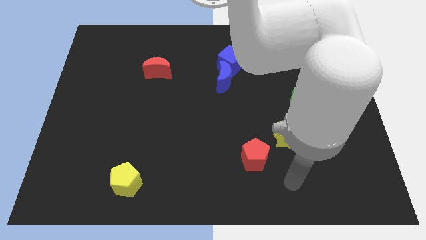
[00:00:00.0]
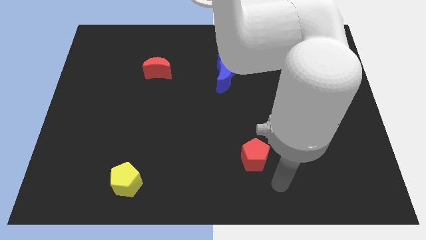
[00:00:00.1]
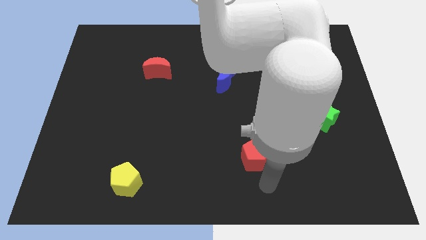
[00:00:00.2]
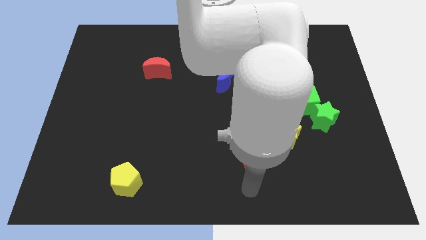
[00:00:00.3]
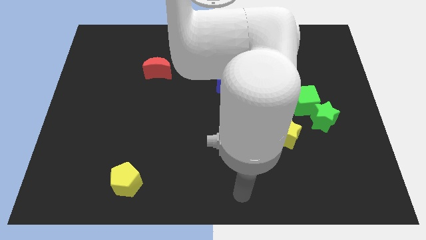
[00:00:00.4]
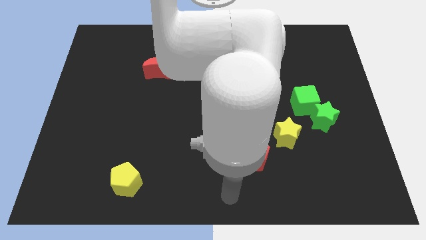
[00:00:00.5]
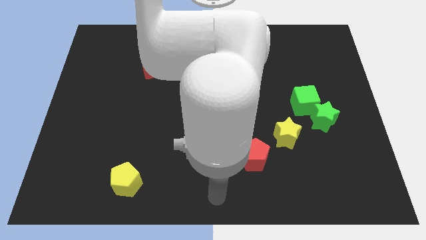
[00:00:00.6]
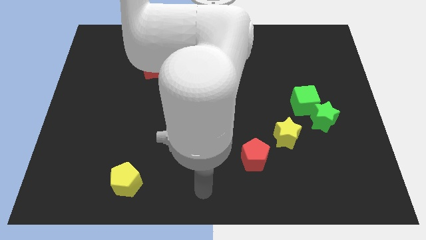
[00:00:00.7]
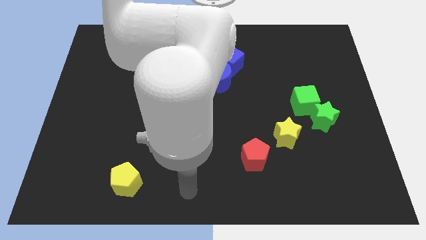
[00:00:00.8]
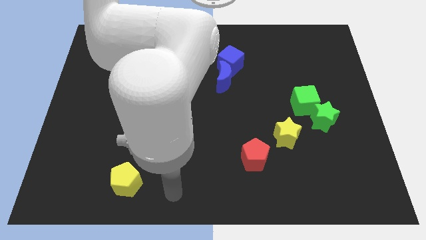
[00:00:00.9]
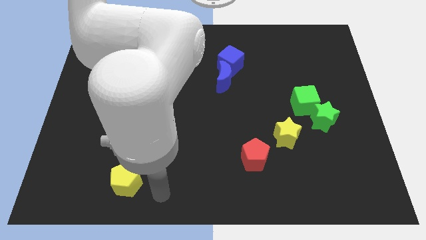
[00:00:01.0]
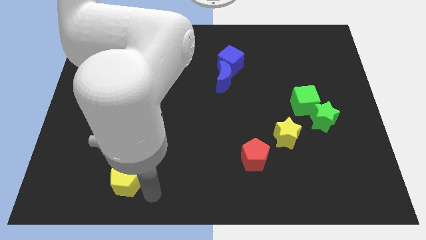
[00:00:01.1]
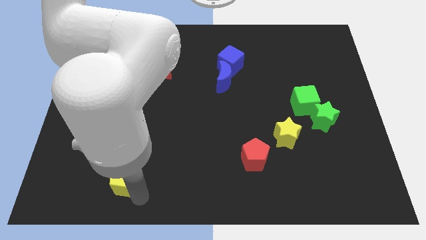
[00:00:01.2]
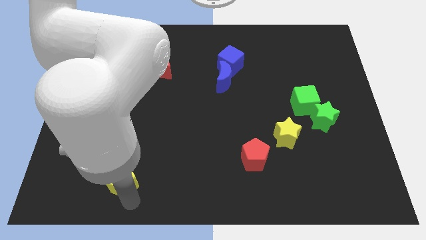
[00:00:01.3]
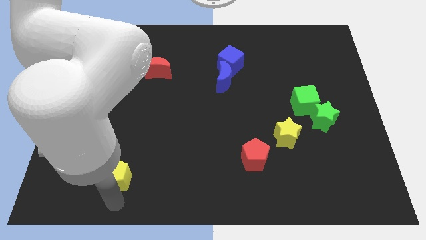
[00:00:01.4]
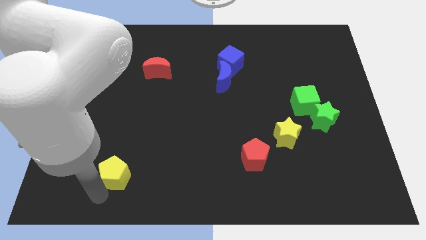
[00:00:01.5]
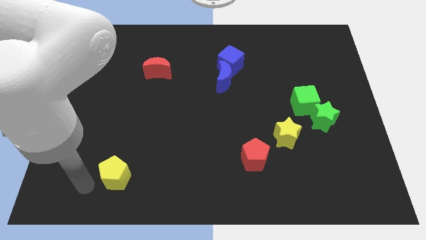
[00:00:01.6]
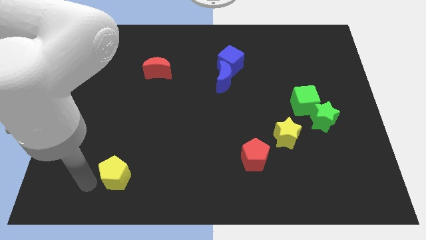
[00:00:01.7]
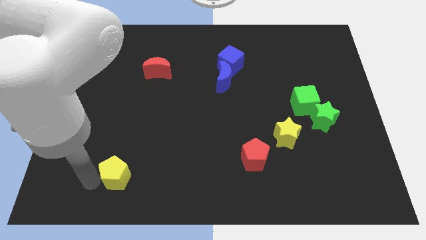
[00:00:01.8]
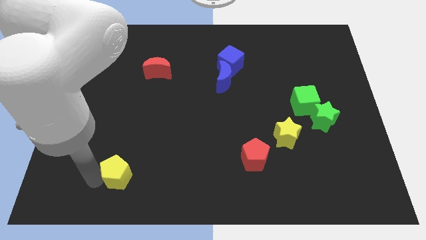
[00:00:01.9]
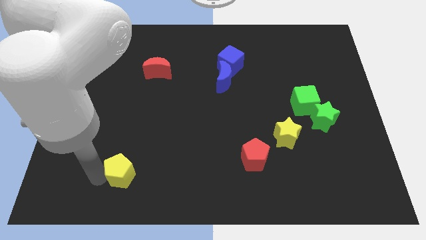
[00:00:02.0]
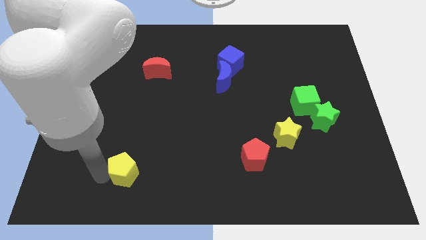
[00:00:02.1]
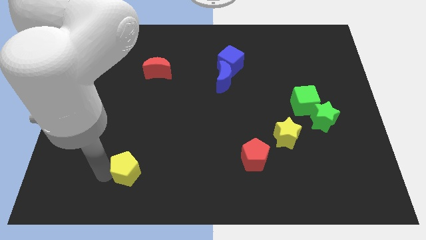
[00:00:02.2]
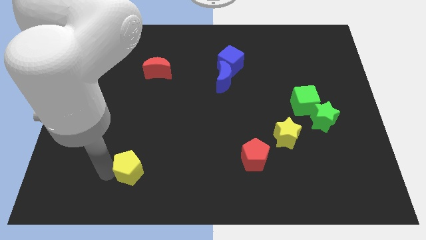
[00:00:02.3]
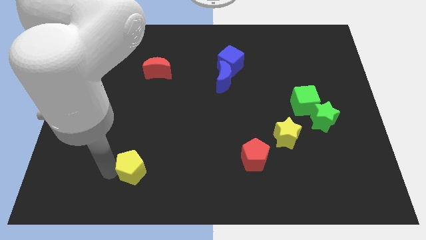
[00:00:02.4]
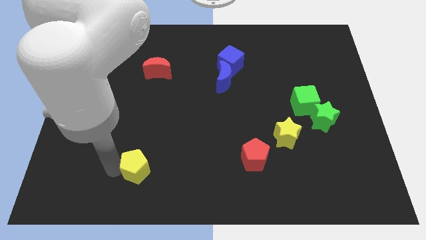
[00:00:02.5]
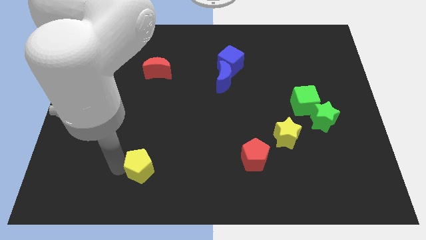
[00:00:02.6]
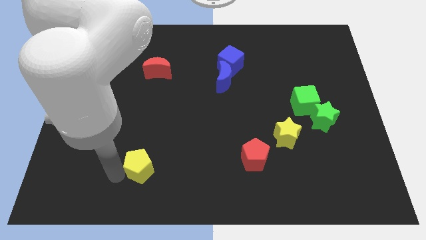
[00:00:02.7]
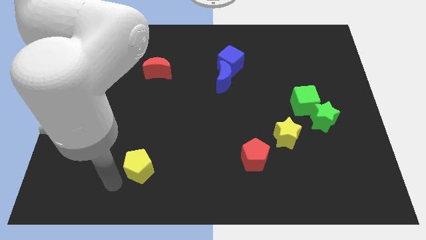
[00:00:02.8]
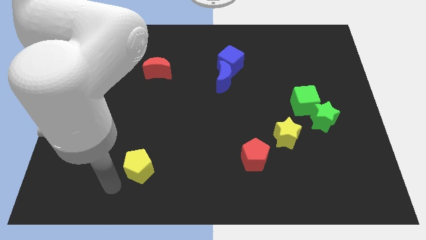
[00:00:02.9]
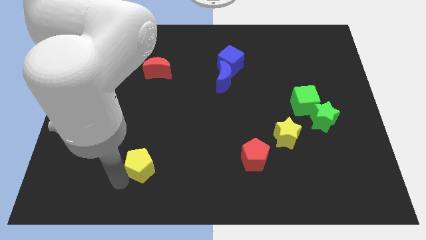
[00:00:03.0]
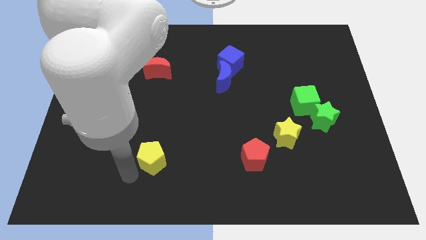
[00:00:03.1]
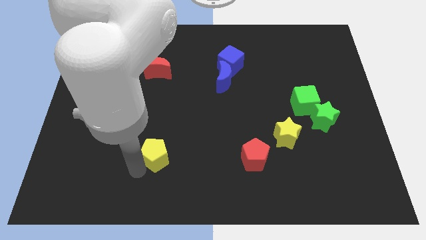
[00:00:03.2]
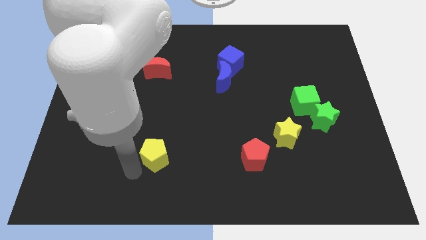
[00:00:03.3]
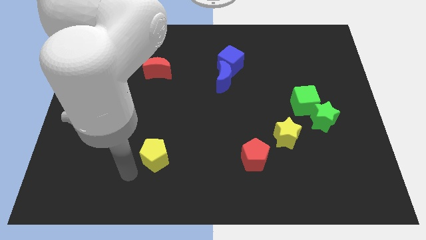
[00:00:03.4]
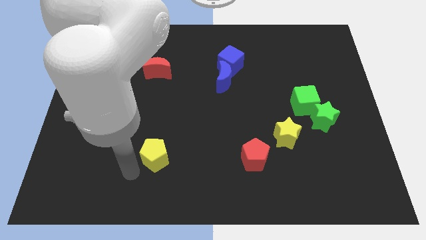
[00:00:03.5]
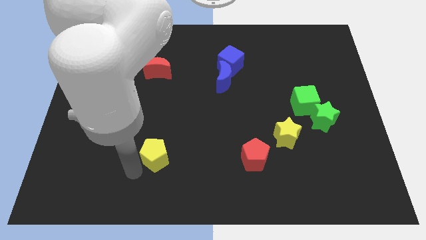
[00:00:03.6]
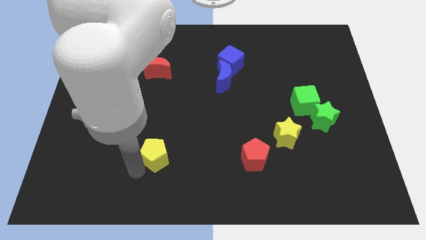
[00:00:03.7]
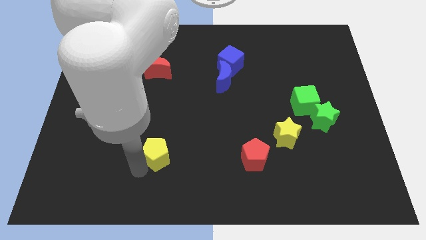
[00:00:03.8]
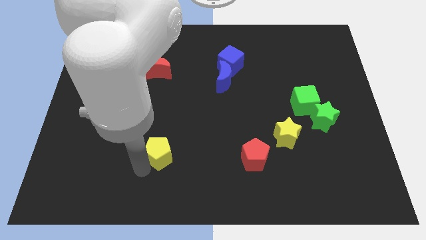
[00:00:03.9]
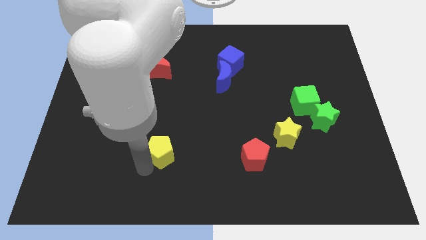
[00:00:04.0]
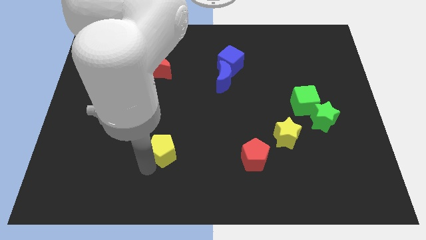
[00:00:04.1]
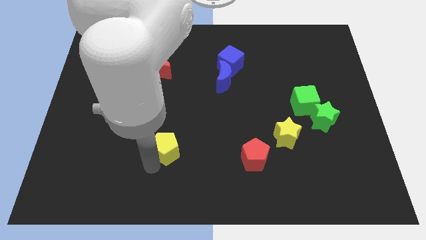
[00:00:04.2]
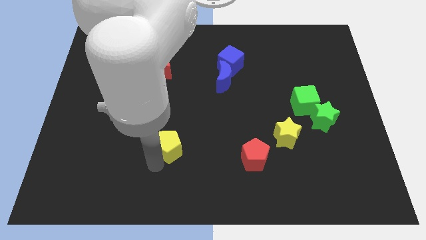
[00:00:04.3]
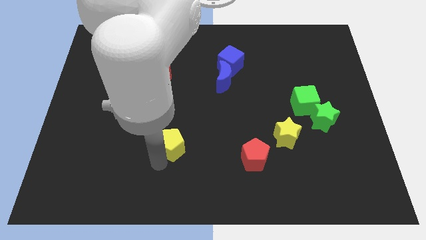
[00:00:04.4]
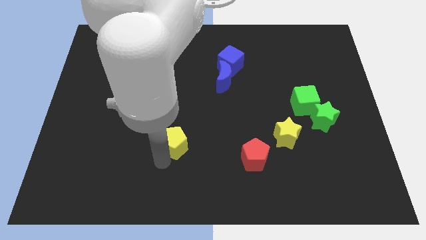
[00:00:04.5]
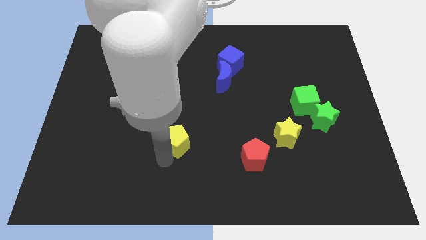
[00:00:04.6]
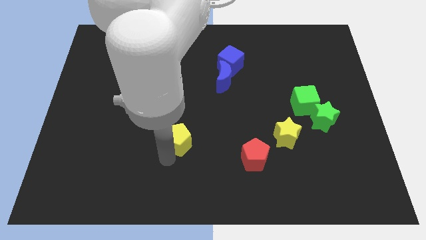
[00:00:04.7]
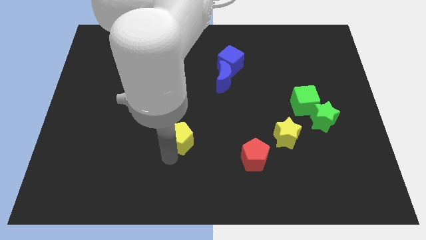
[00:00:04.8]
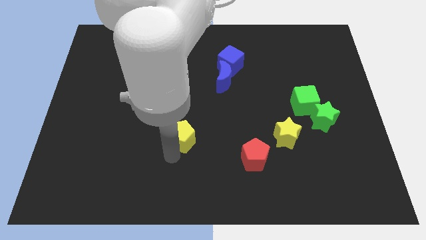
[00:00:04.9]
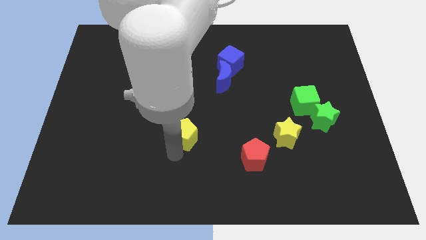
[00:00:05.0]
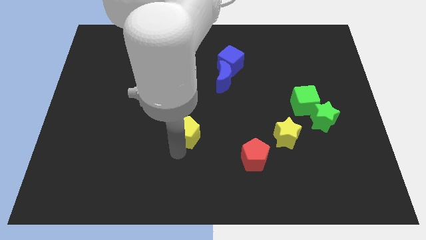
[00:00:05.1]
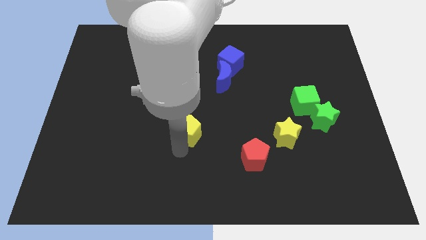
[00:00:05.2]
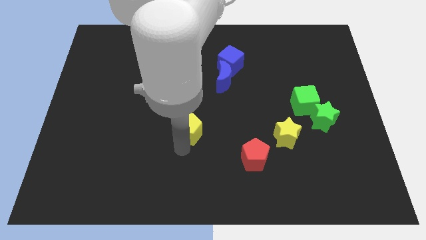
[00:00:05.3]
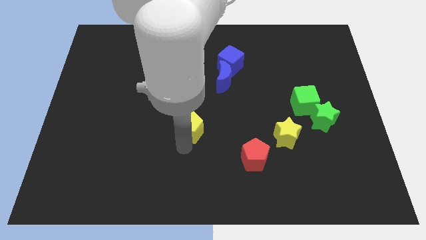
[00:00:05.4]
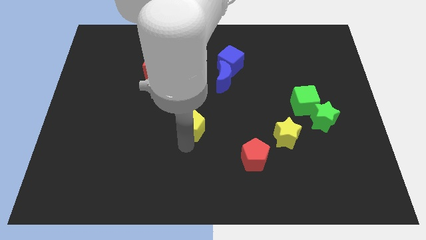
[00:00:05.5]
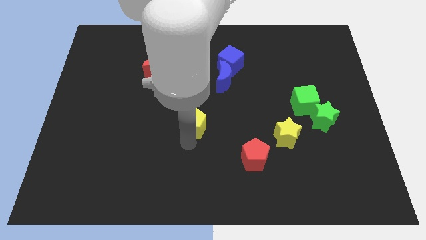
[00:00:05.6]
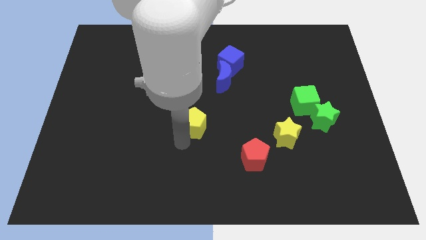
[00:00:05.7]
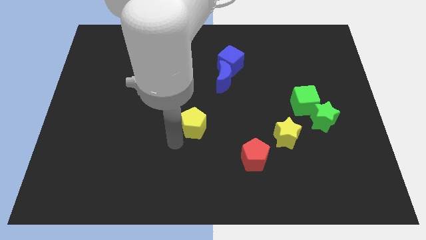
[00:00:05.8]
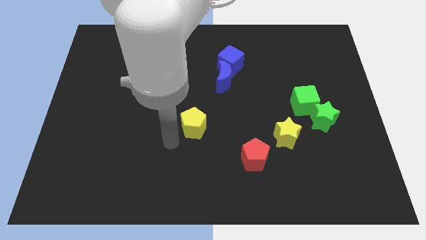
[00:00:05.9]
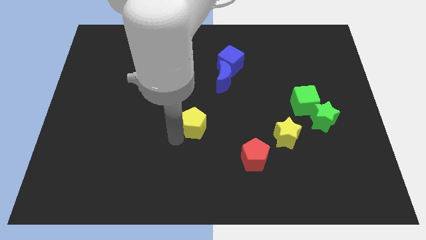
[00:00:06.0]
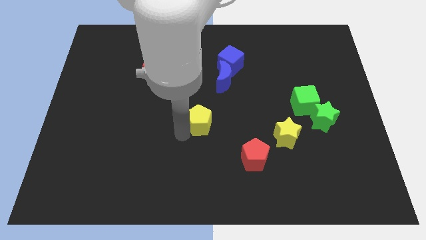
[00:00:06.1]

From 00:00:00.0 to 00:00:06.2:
push the yellow pentagon upwards and right

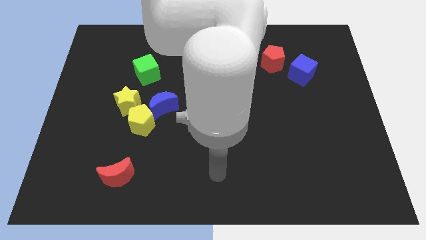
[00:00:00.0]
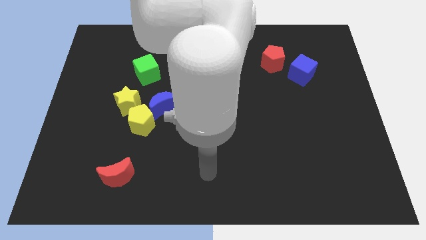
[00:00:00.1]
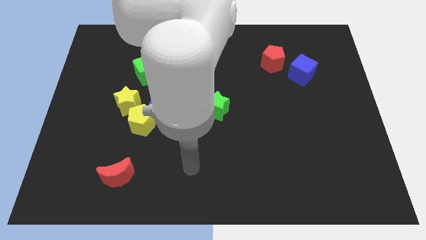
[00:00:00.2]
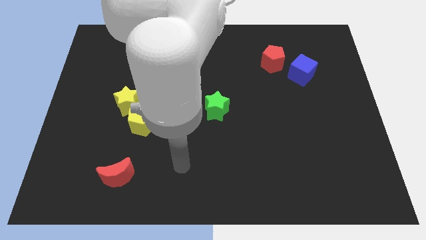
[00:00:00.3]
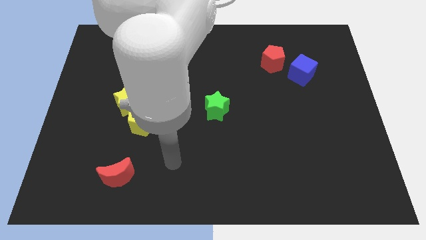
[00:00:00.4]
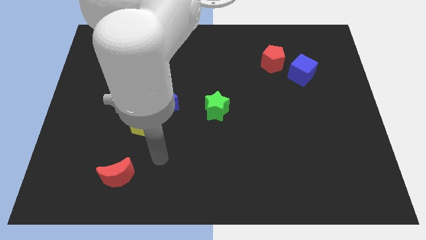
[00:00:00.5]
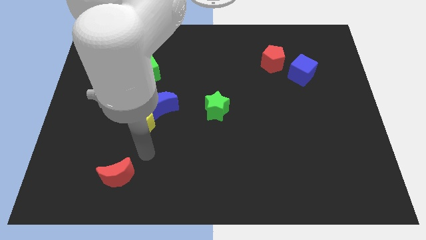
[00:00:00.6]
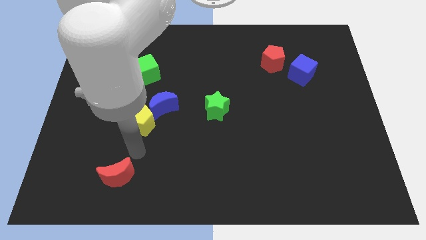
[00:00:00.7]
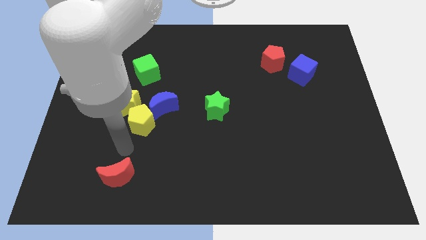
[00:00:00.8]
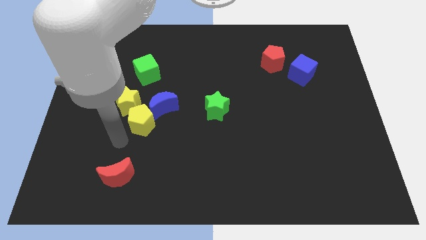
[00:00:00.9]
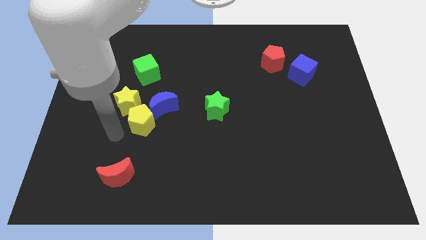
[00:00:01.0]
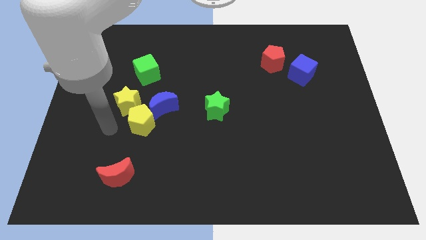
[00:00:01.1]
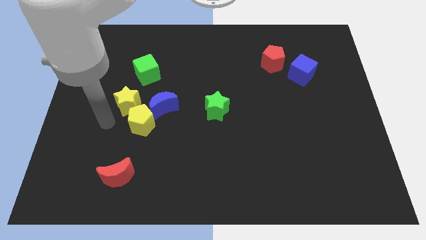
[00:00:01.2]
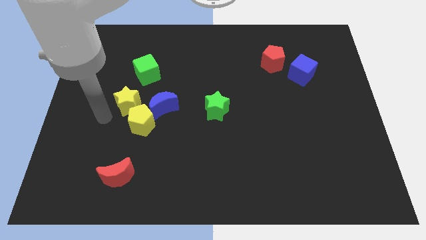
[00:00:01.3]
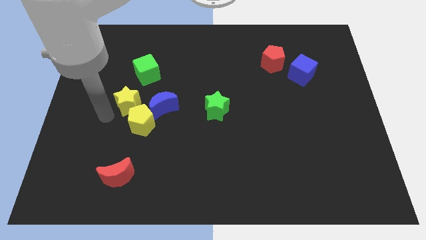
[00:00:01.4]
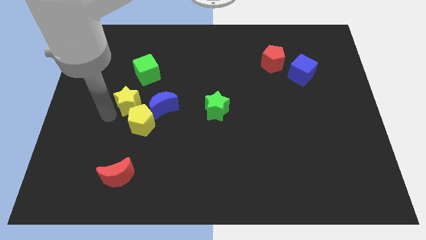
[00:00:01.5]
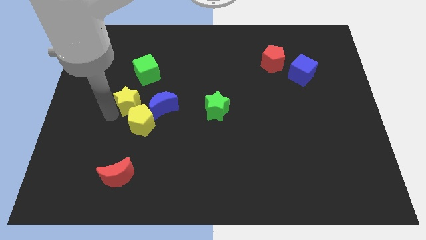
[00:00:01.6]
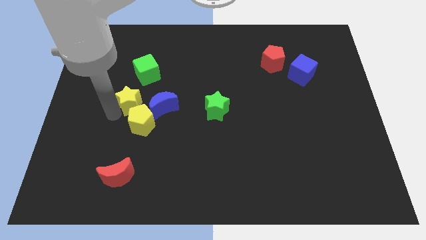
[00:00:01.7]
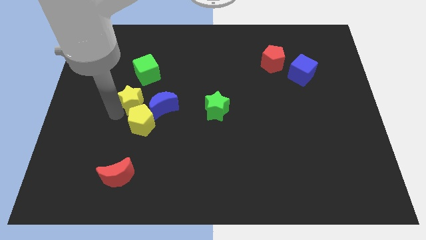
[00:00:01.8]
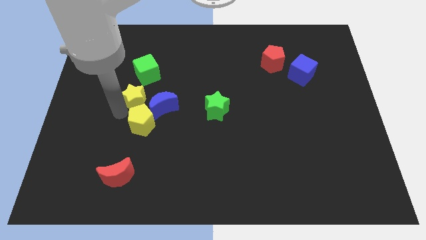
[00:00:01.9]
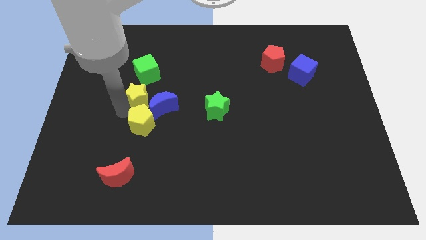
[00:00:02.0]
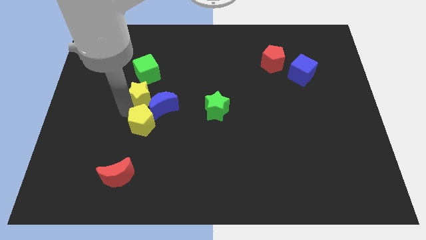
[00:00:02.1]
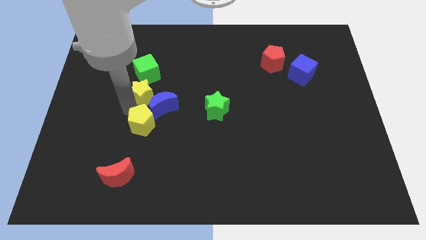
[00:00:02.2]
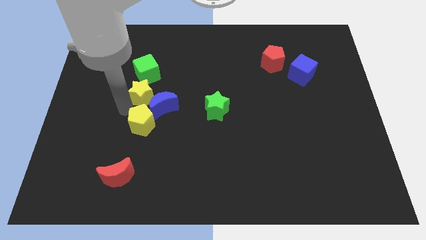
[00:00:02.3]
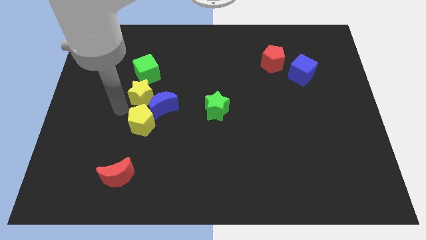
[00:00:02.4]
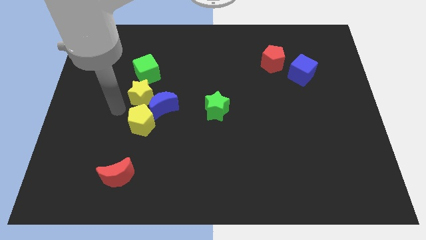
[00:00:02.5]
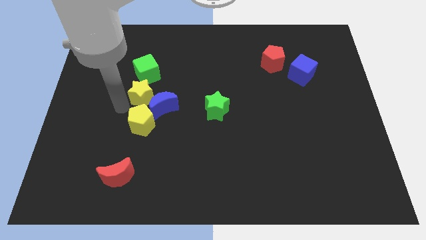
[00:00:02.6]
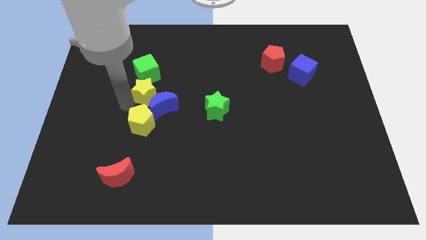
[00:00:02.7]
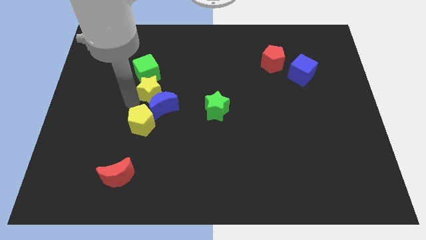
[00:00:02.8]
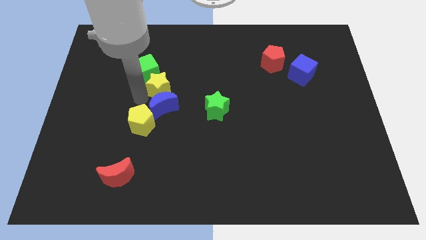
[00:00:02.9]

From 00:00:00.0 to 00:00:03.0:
slide the yellow star a little diagonally up and right
